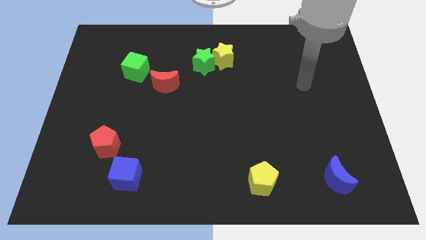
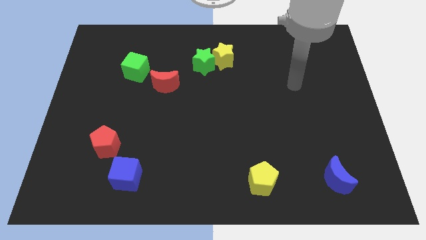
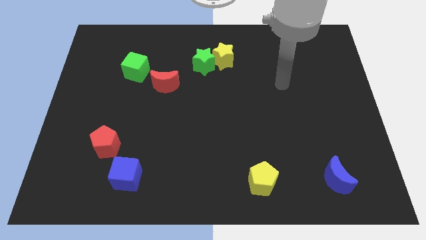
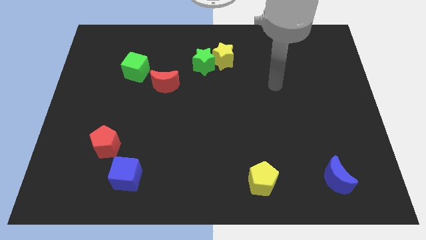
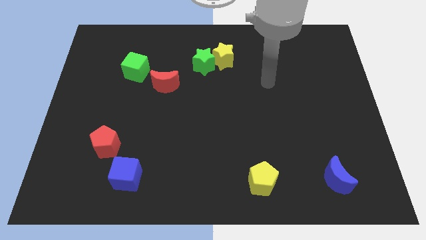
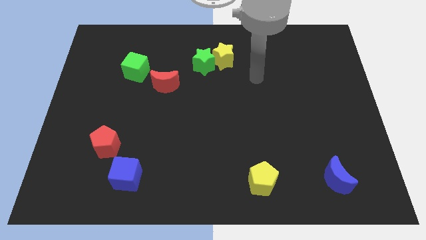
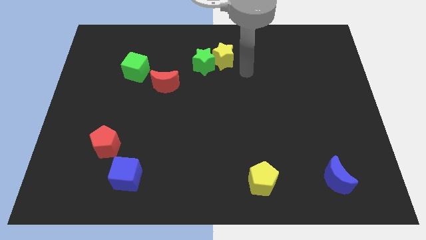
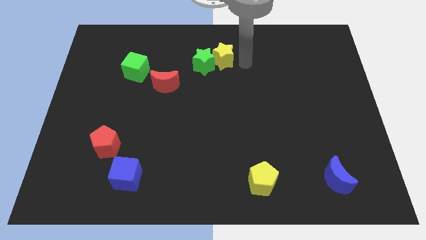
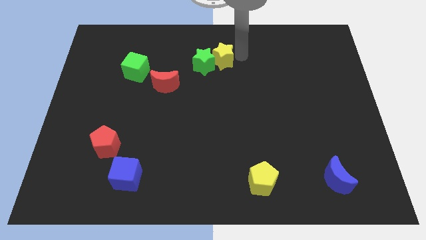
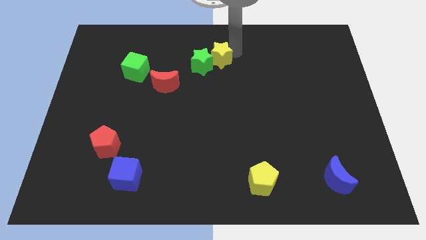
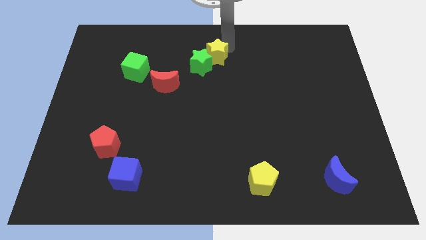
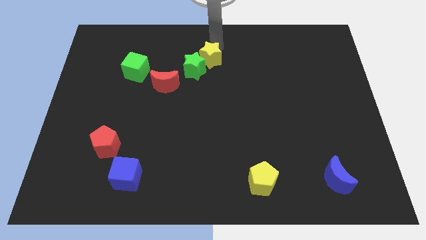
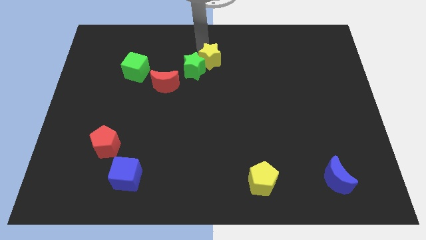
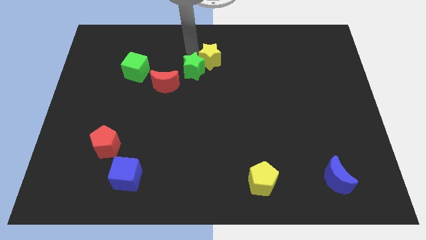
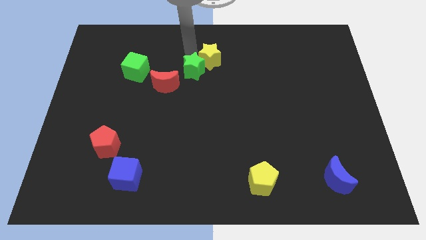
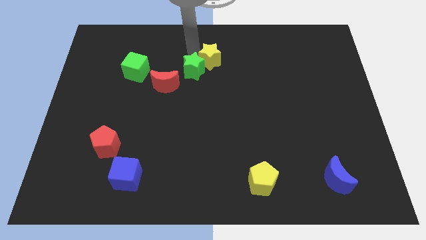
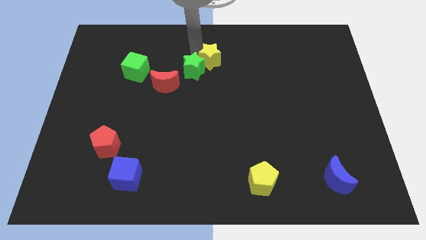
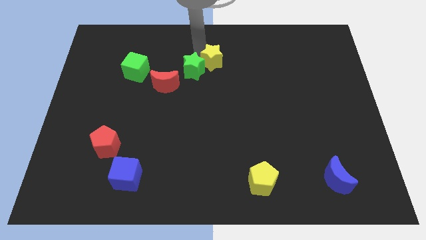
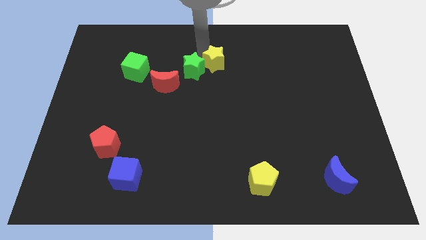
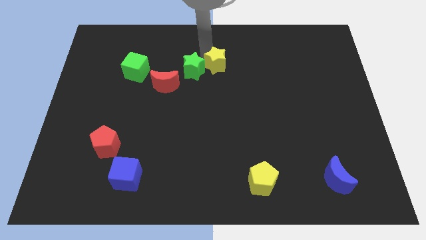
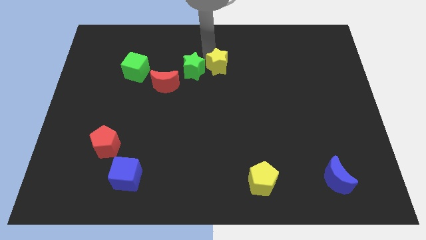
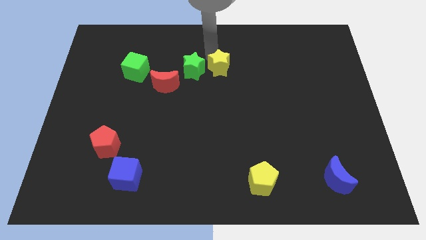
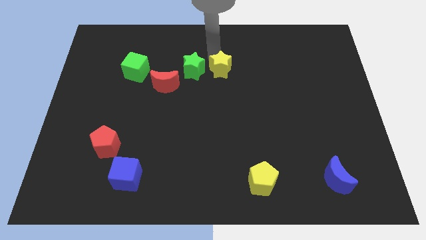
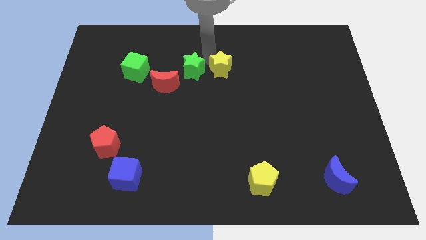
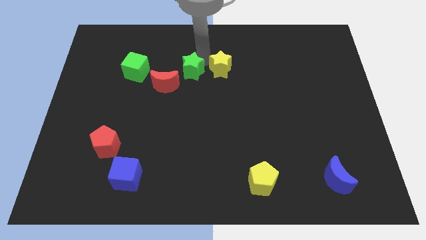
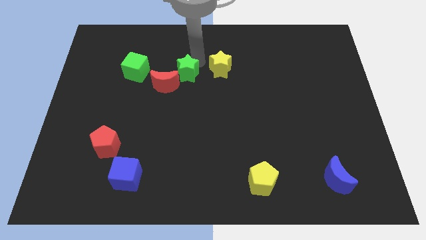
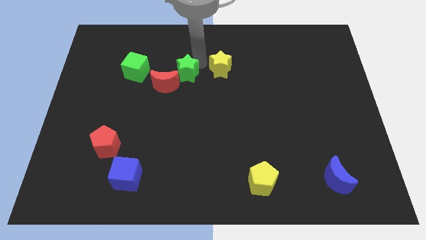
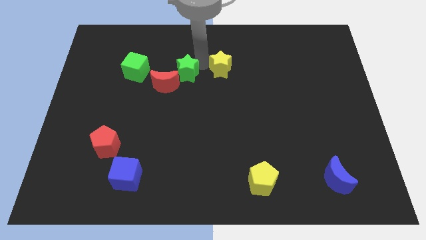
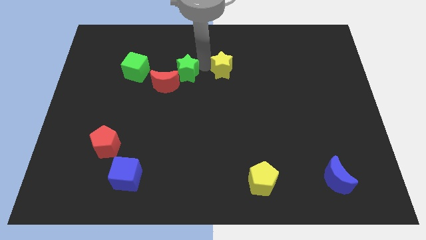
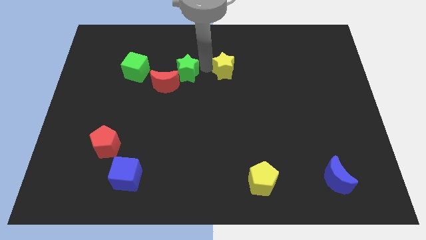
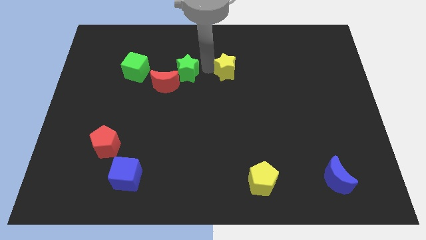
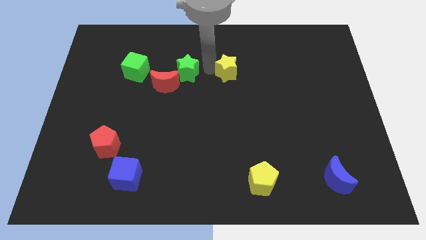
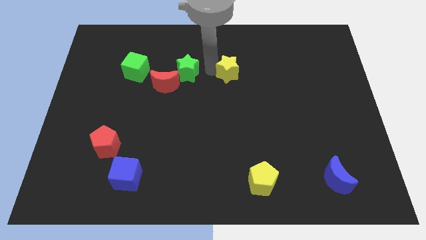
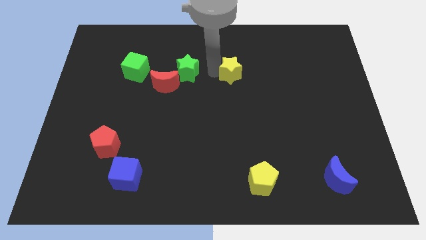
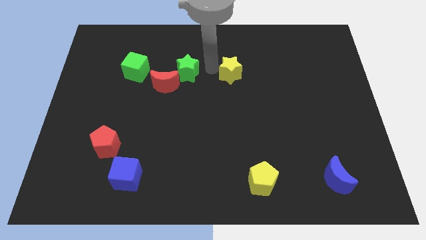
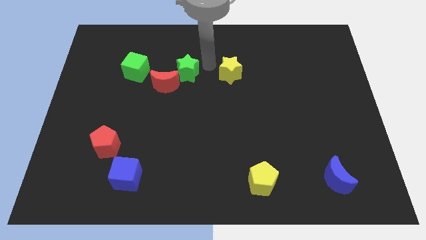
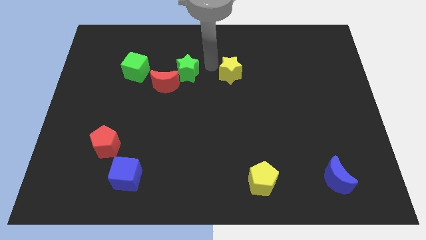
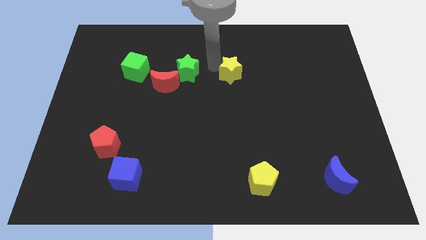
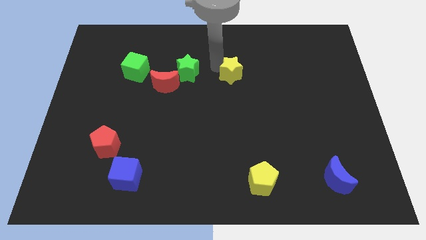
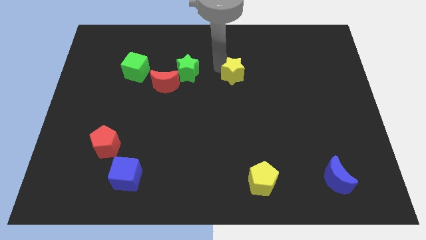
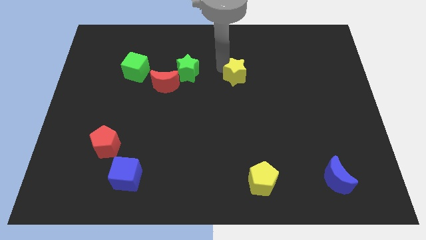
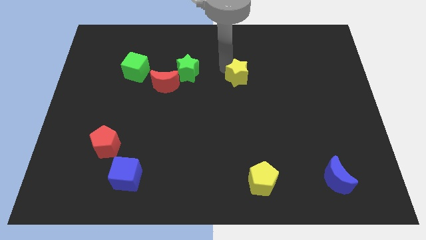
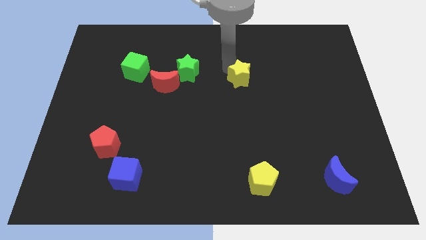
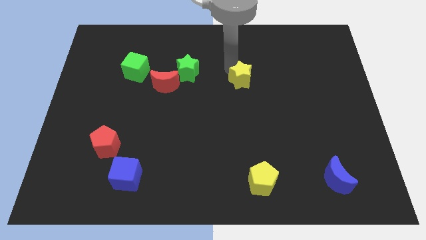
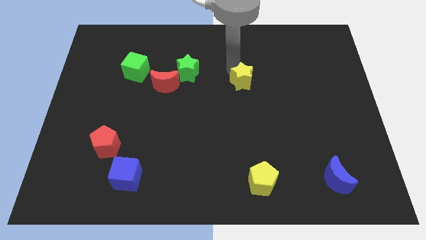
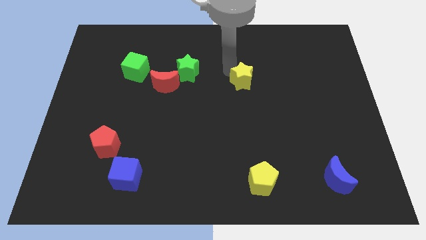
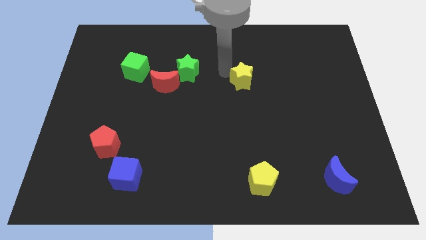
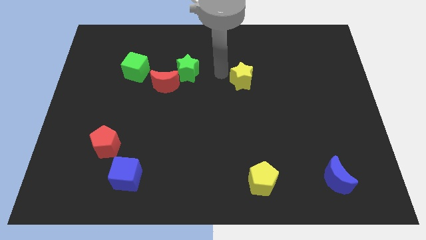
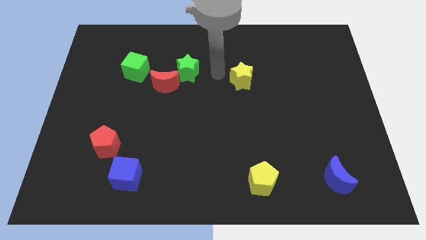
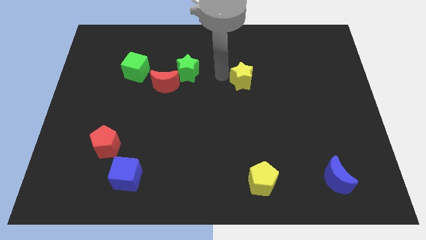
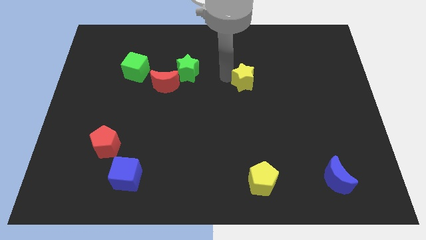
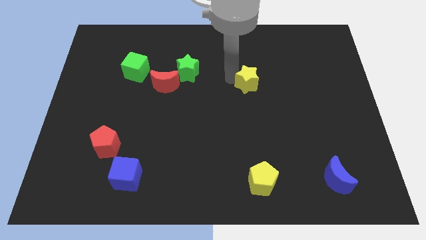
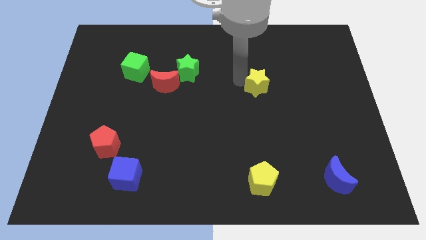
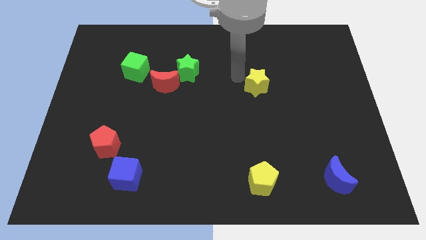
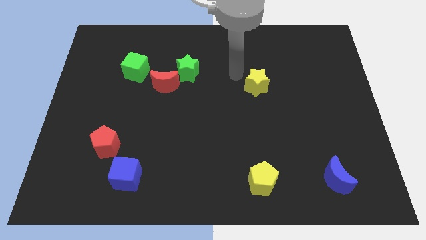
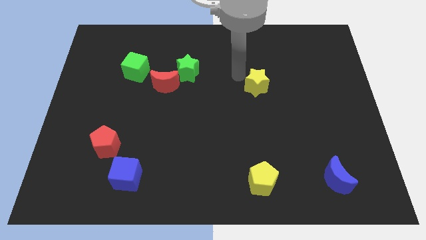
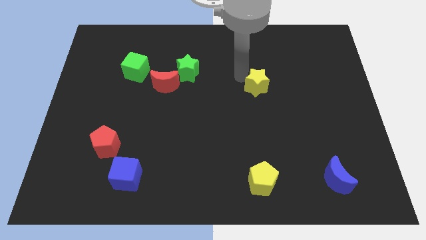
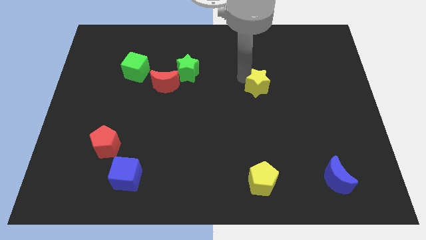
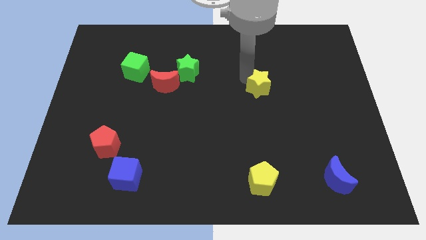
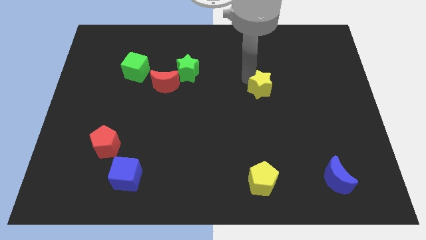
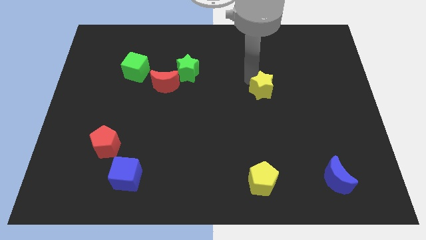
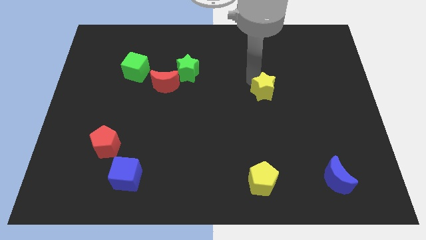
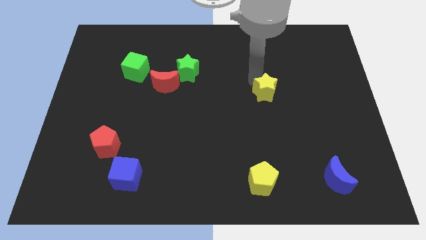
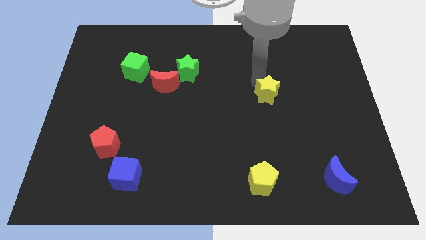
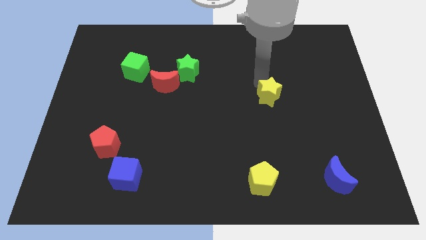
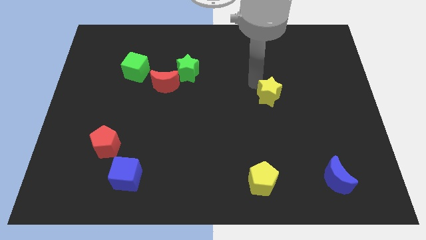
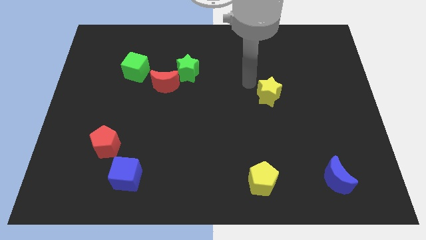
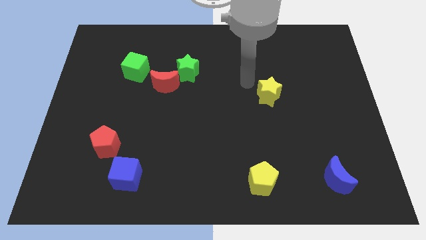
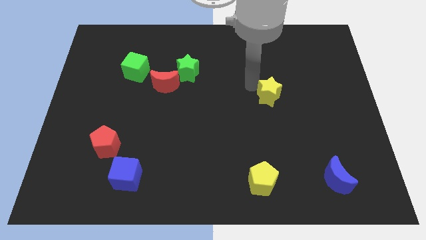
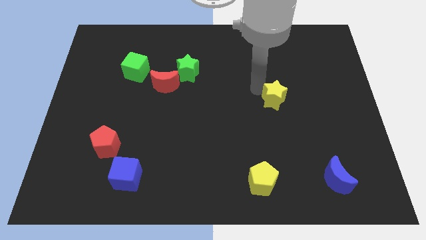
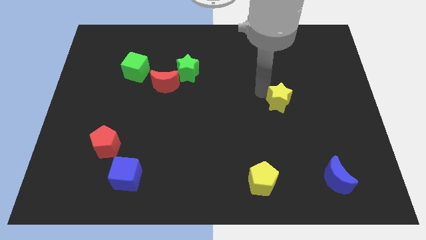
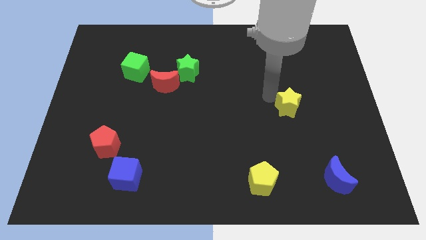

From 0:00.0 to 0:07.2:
slide the yellow star down and right diagonally

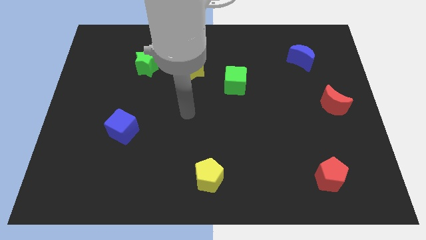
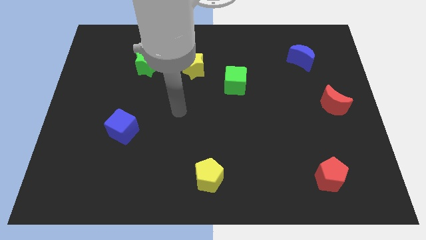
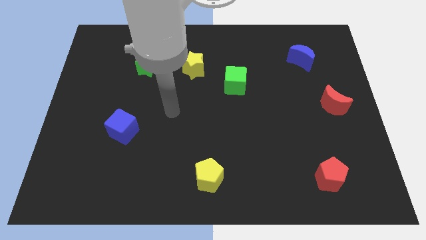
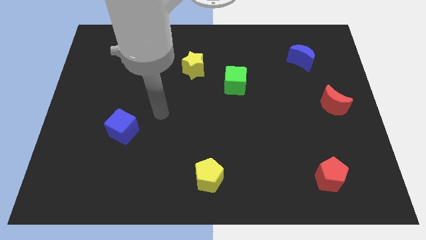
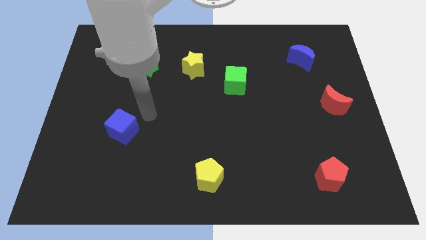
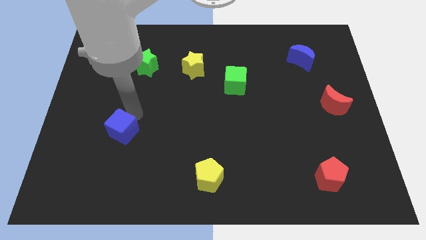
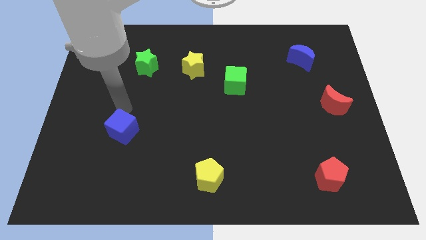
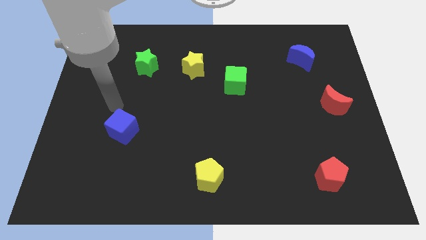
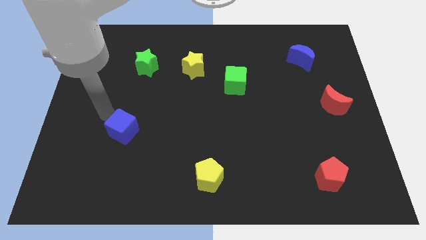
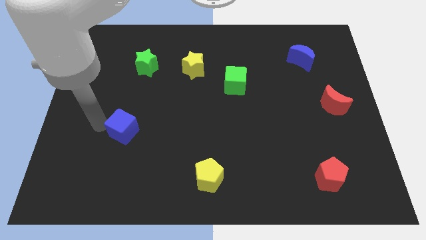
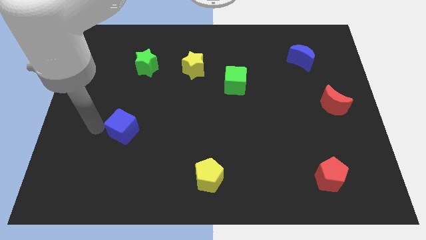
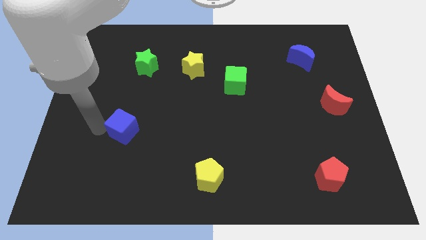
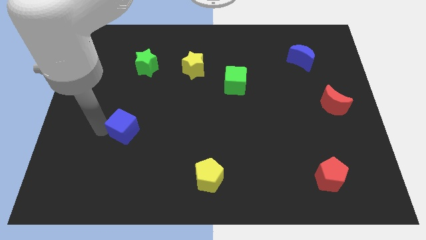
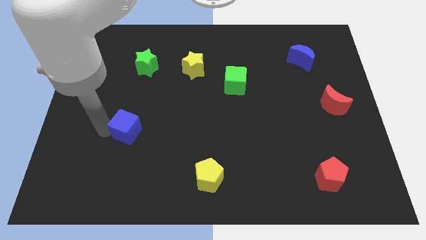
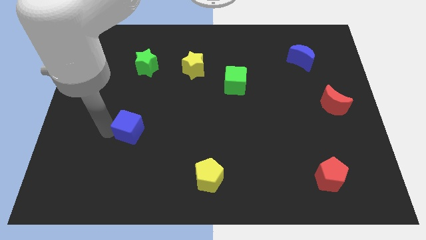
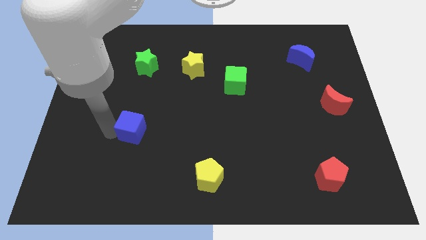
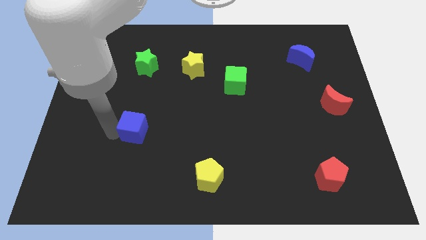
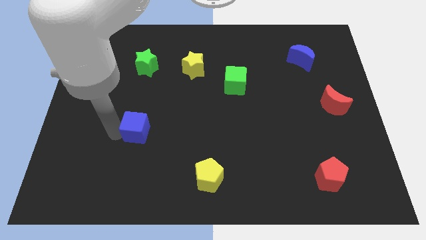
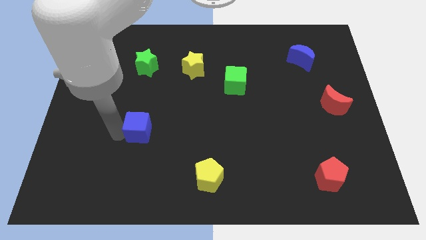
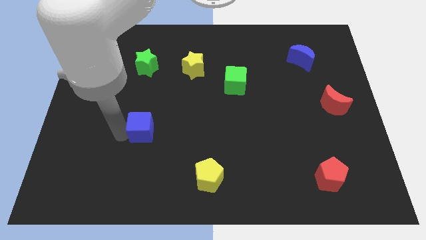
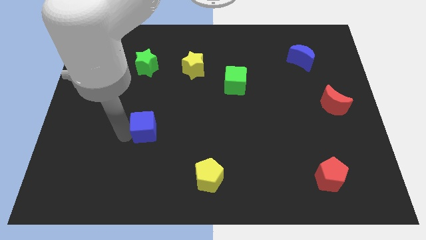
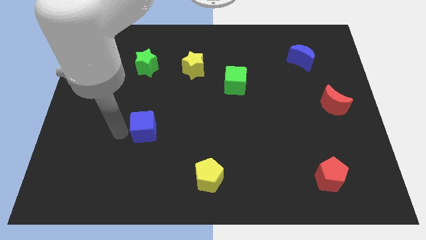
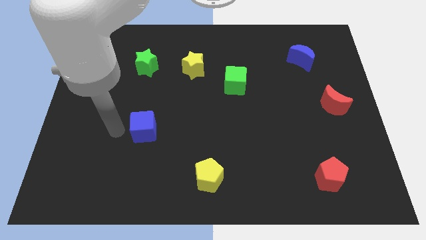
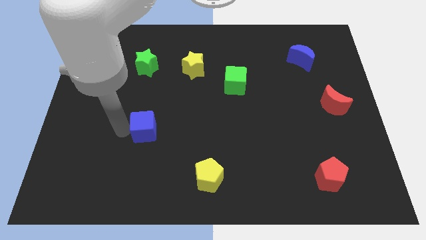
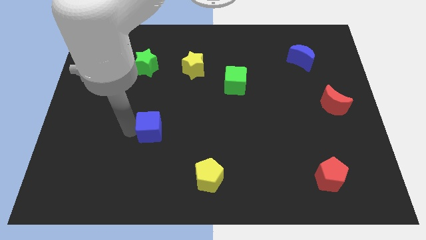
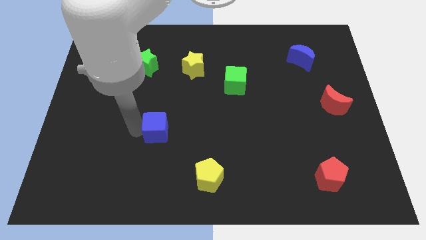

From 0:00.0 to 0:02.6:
slightly push the blue cube right
